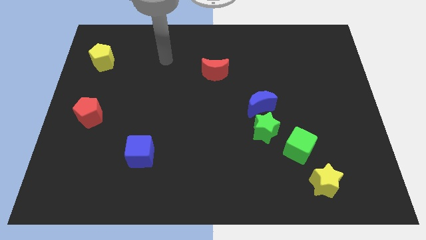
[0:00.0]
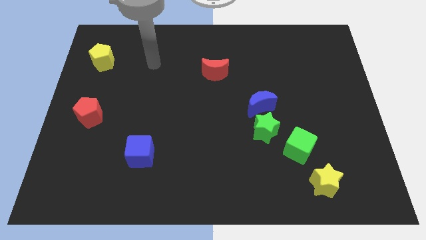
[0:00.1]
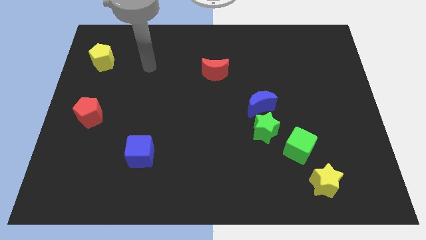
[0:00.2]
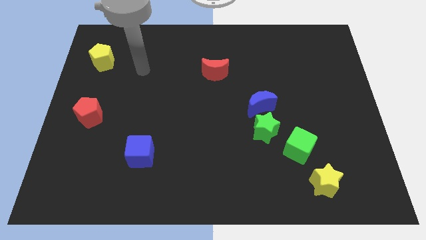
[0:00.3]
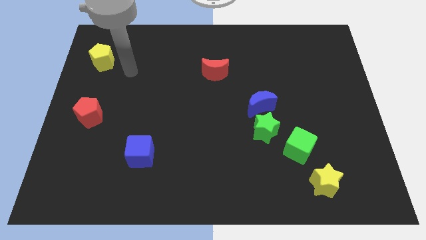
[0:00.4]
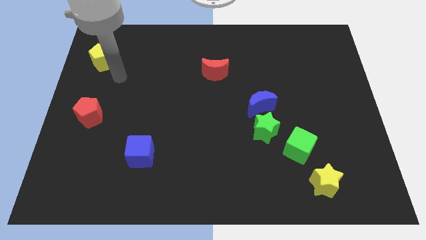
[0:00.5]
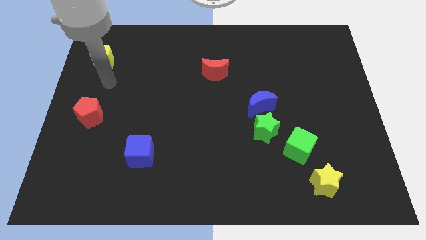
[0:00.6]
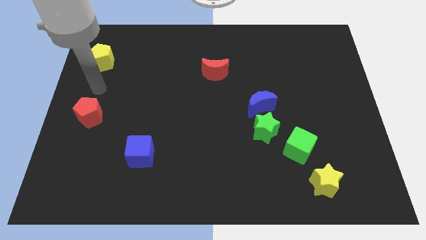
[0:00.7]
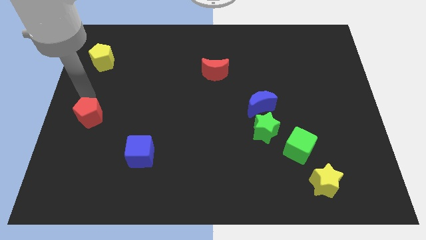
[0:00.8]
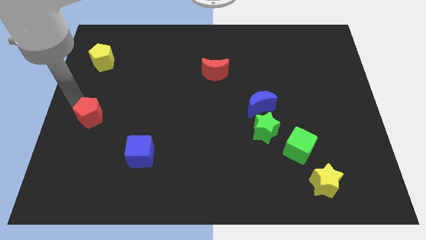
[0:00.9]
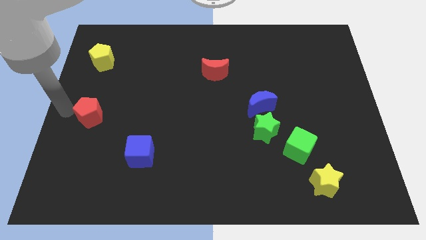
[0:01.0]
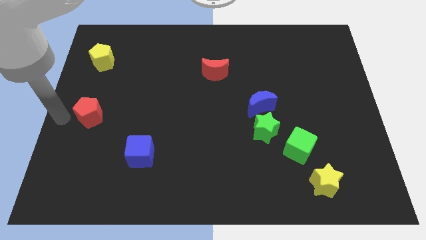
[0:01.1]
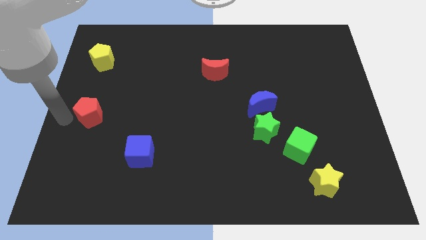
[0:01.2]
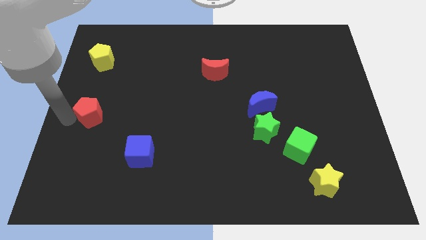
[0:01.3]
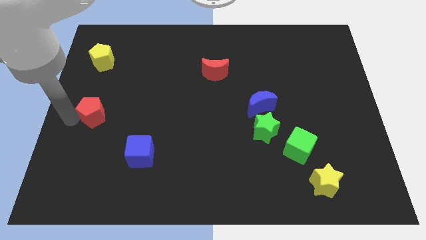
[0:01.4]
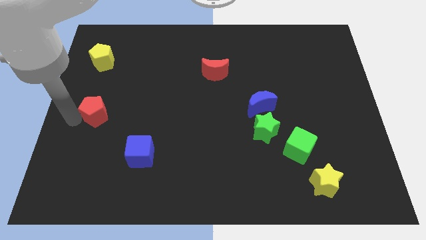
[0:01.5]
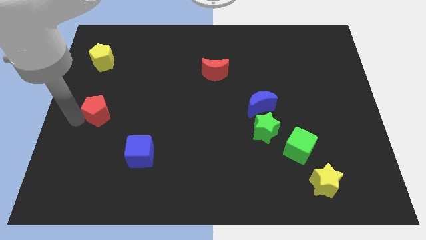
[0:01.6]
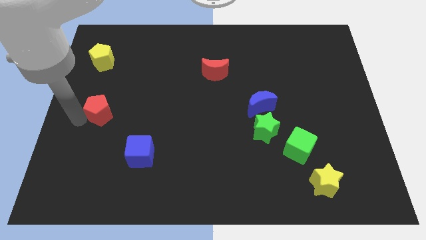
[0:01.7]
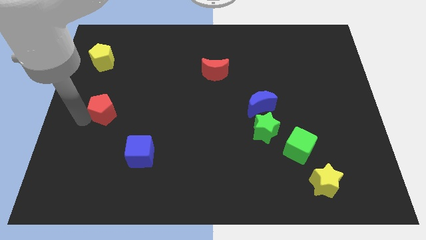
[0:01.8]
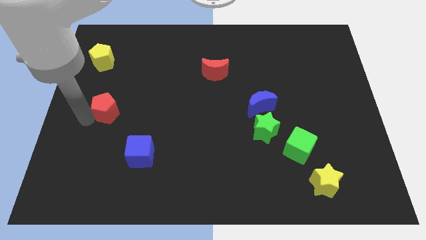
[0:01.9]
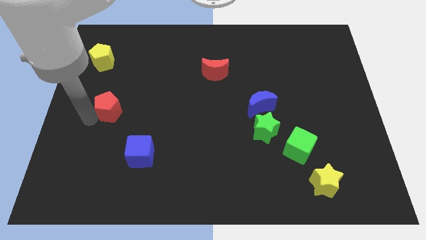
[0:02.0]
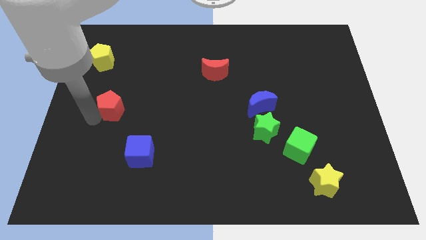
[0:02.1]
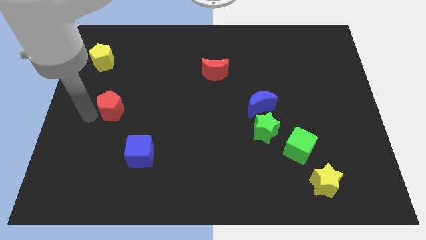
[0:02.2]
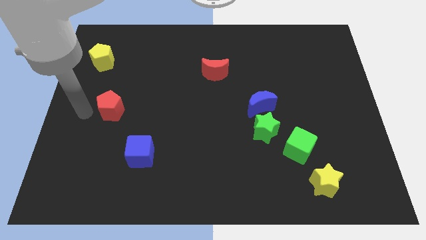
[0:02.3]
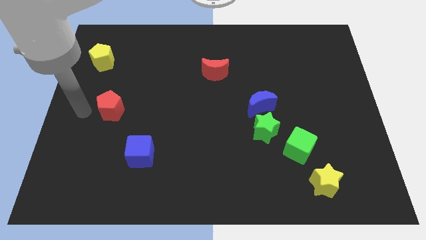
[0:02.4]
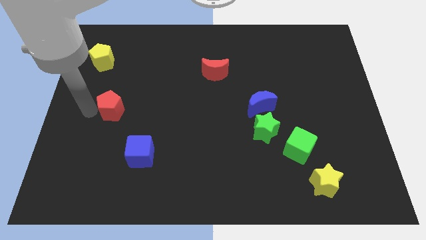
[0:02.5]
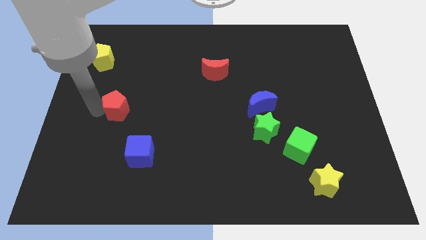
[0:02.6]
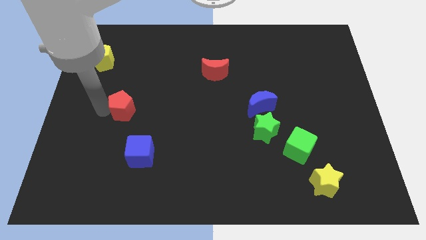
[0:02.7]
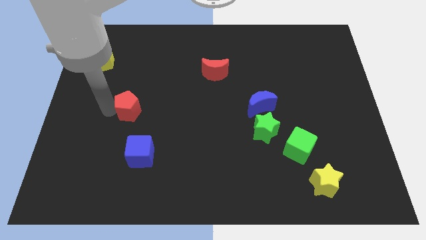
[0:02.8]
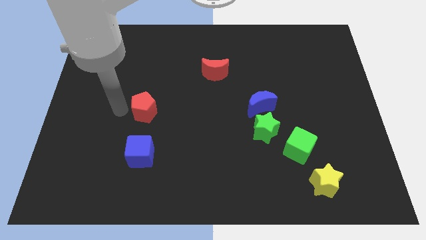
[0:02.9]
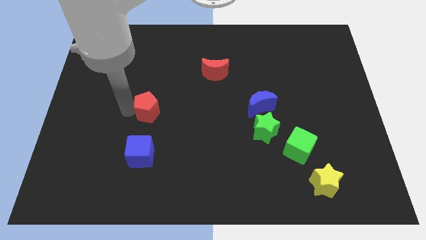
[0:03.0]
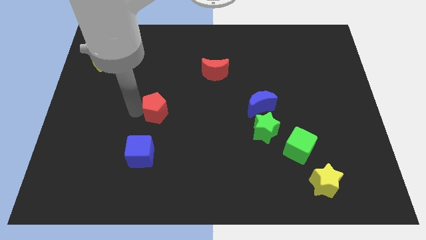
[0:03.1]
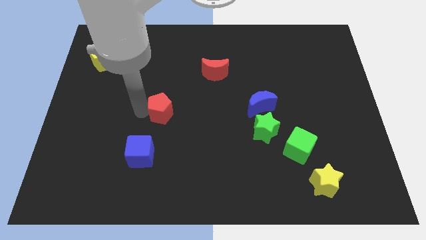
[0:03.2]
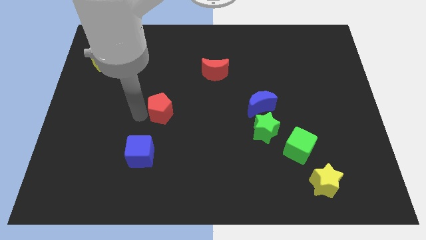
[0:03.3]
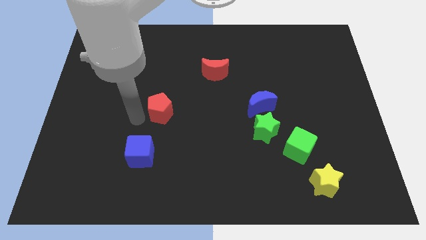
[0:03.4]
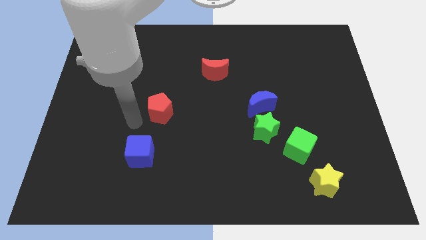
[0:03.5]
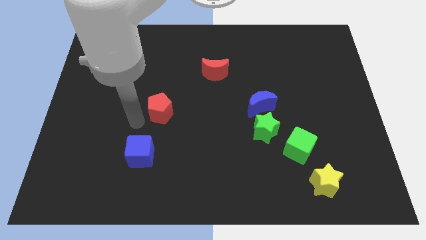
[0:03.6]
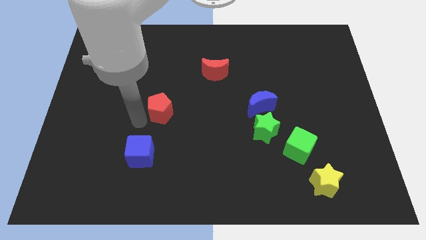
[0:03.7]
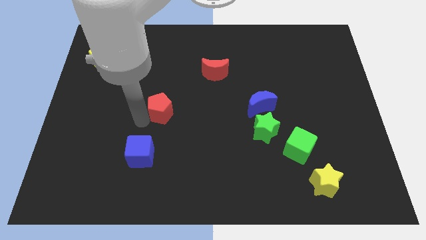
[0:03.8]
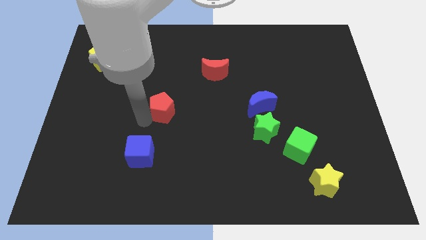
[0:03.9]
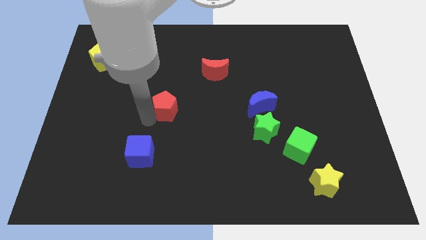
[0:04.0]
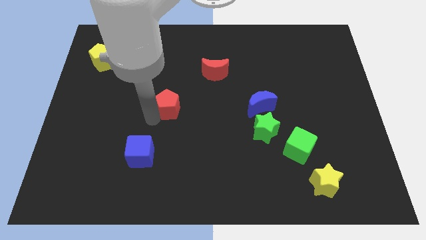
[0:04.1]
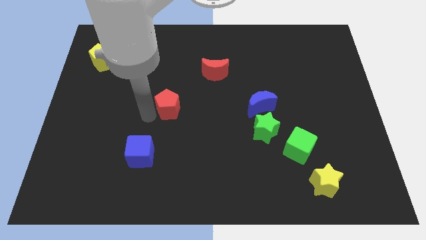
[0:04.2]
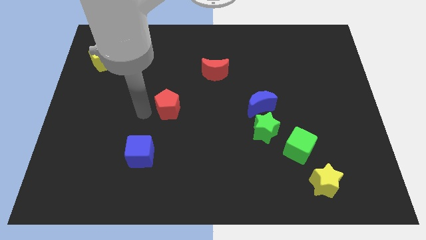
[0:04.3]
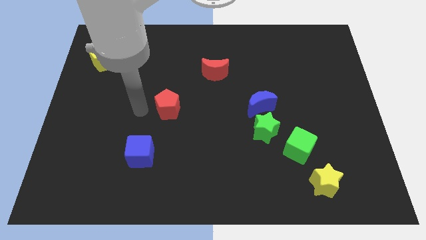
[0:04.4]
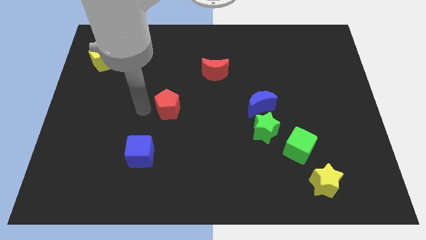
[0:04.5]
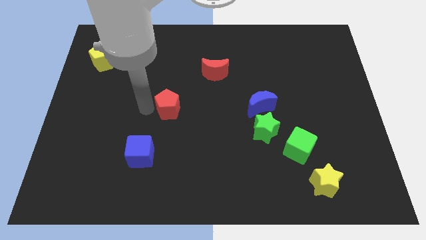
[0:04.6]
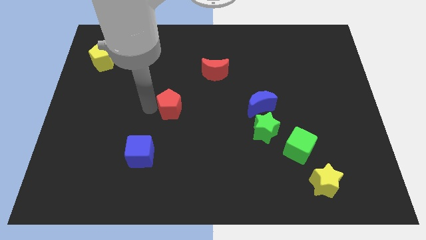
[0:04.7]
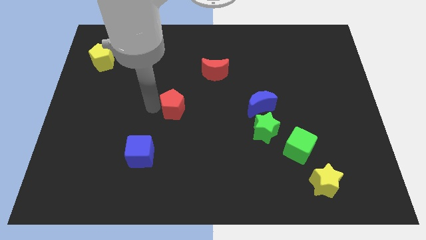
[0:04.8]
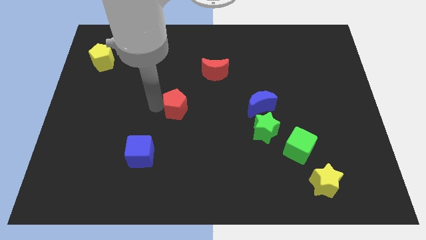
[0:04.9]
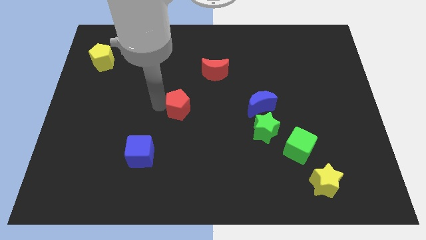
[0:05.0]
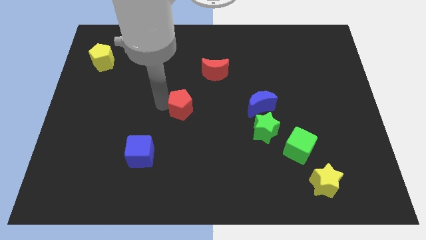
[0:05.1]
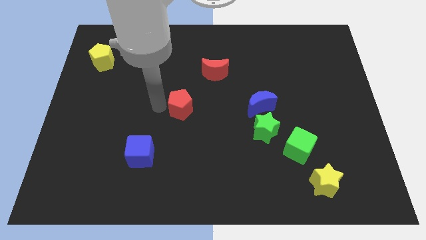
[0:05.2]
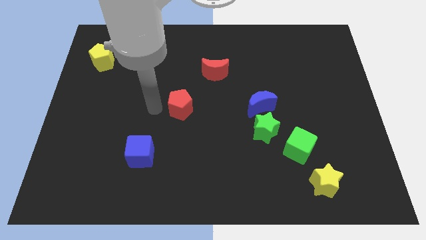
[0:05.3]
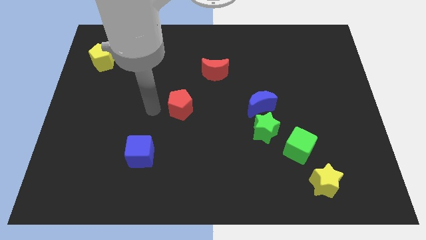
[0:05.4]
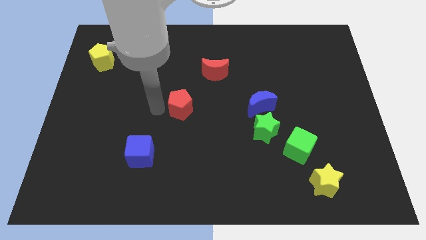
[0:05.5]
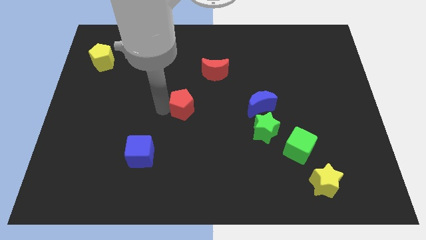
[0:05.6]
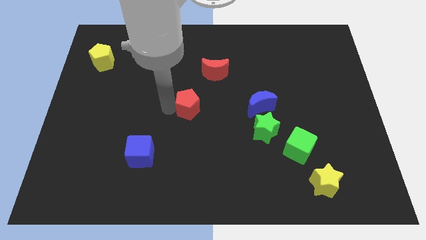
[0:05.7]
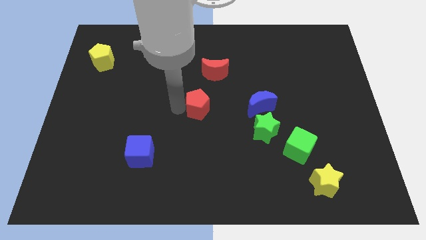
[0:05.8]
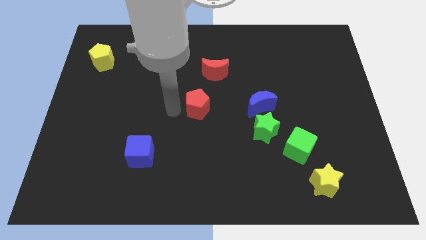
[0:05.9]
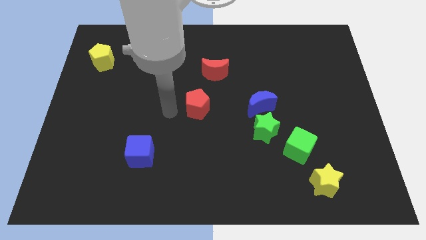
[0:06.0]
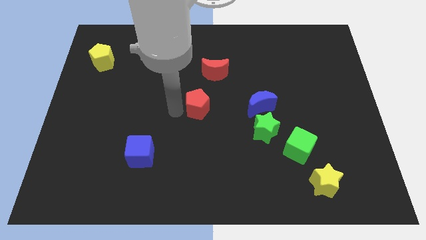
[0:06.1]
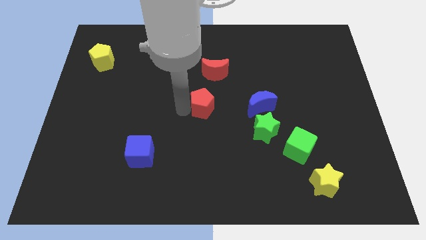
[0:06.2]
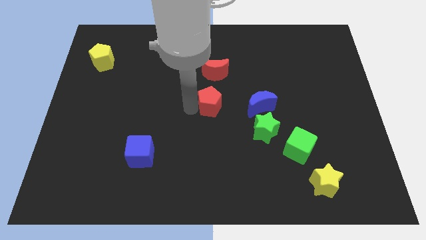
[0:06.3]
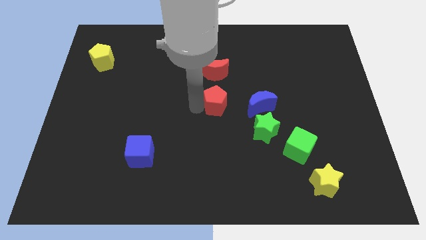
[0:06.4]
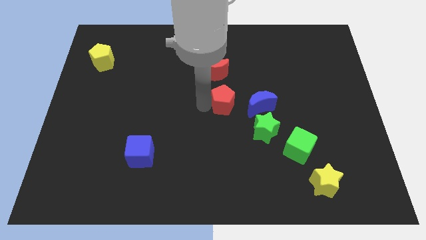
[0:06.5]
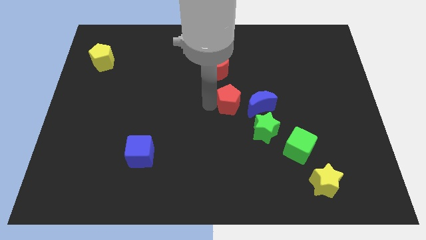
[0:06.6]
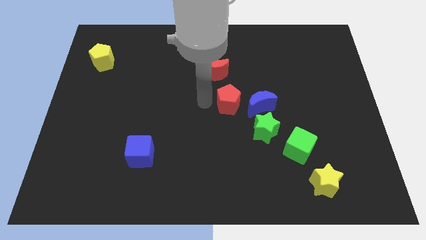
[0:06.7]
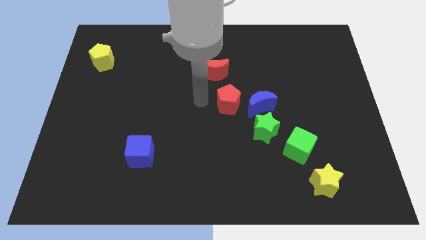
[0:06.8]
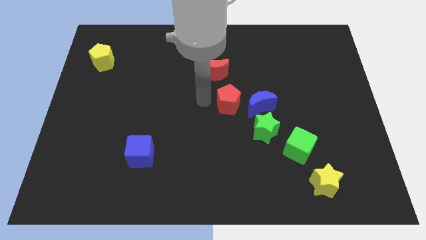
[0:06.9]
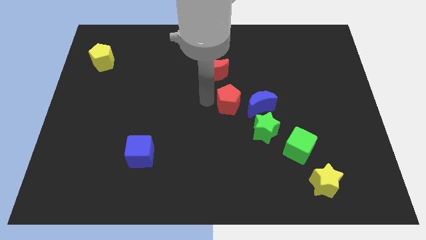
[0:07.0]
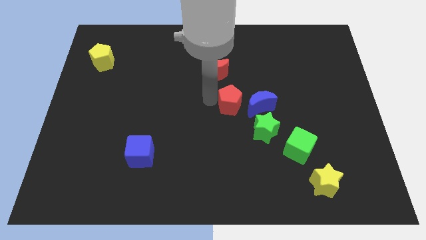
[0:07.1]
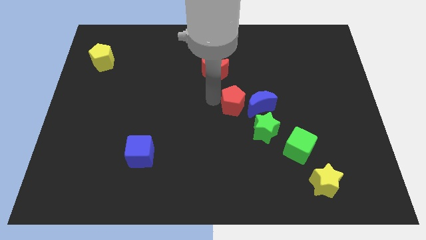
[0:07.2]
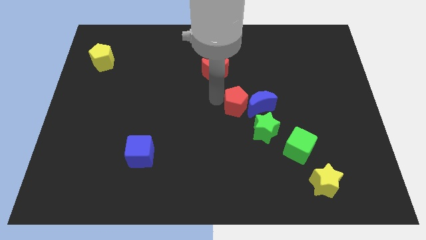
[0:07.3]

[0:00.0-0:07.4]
put the red pentagon close to the blue moon
